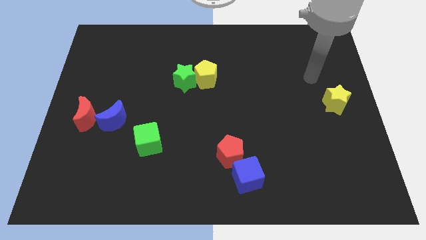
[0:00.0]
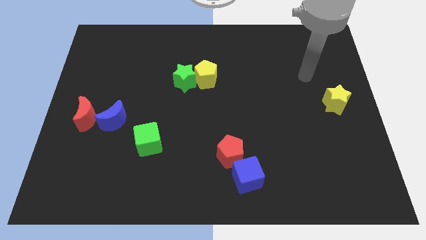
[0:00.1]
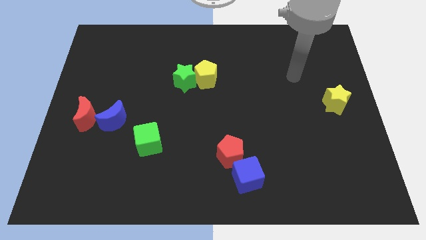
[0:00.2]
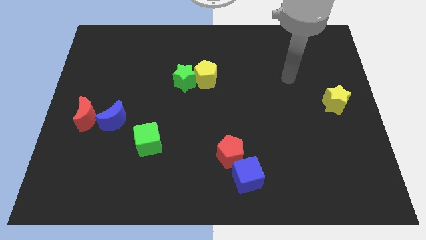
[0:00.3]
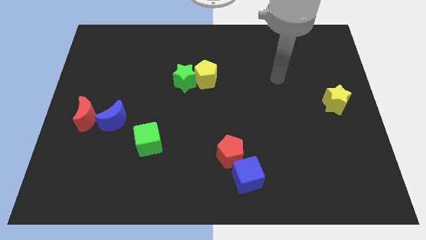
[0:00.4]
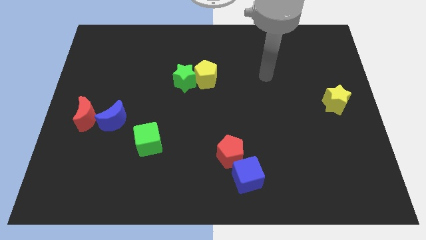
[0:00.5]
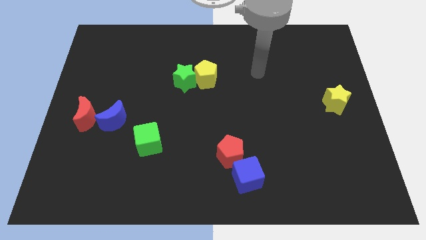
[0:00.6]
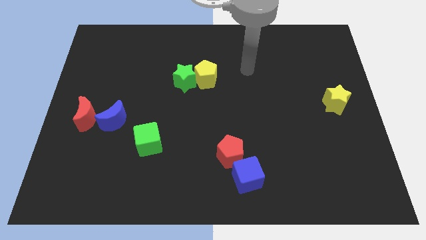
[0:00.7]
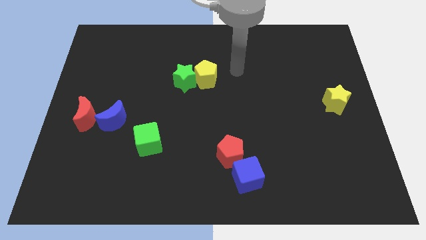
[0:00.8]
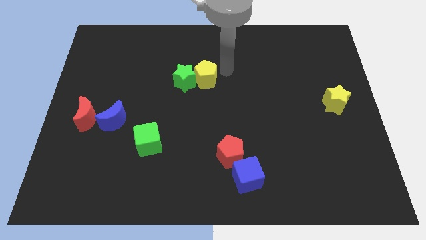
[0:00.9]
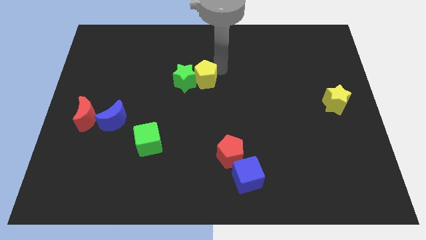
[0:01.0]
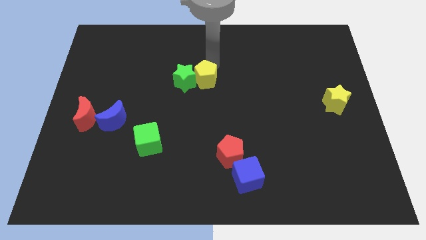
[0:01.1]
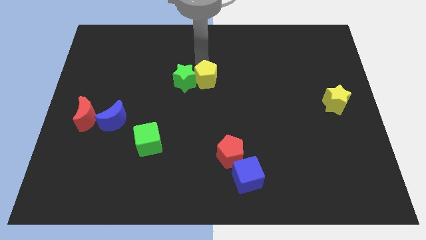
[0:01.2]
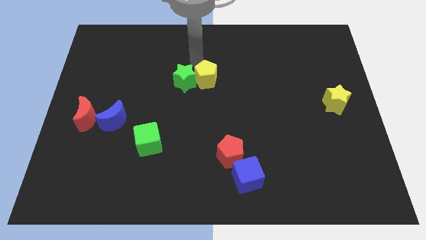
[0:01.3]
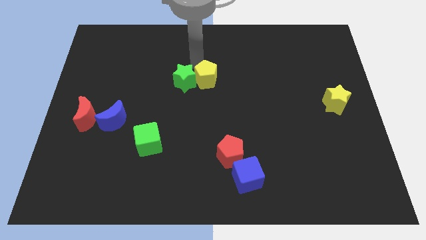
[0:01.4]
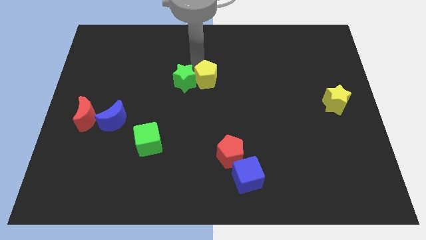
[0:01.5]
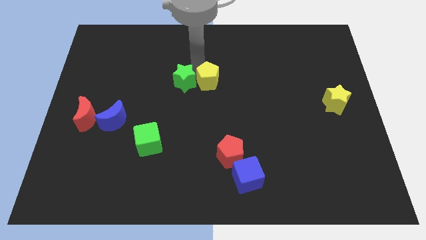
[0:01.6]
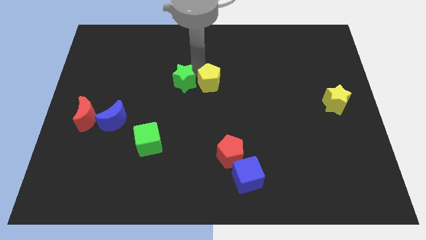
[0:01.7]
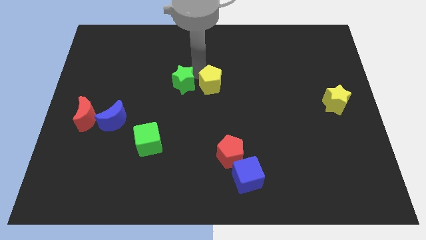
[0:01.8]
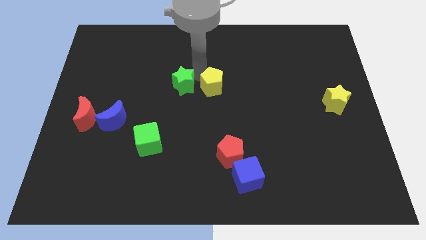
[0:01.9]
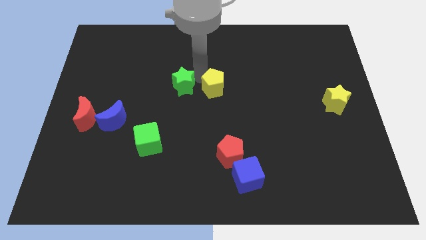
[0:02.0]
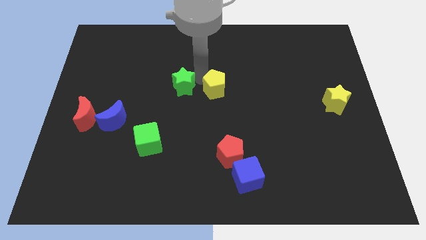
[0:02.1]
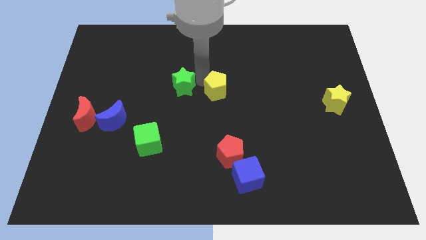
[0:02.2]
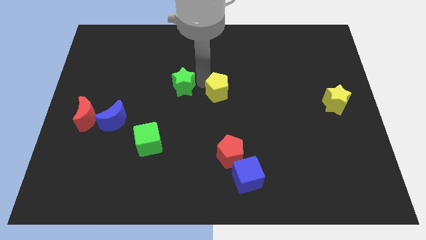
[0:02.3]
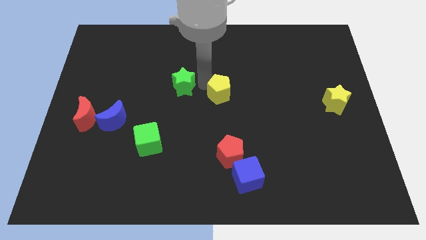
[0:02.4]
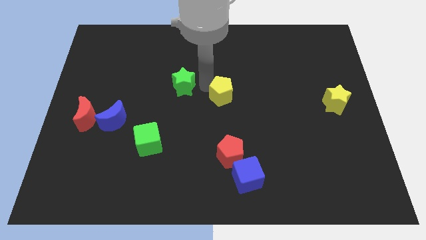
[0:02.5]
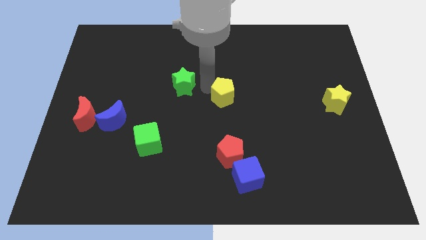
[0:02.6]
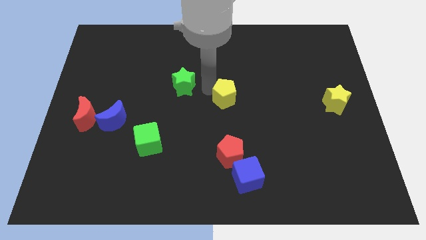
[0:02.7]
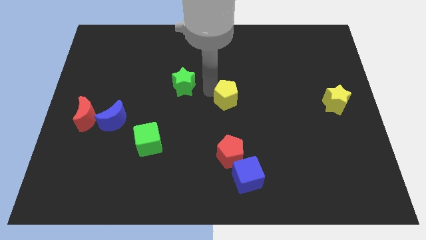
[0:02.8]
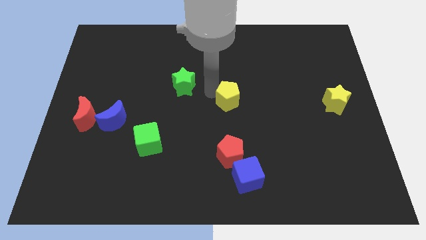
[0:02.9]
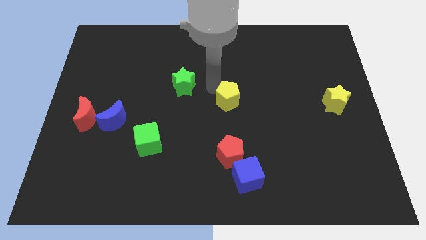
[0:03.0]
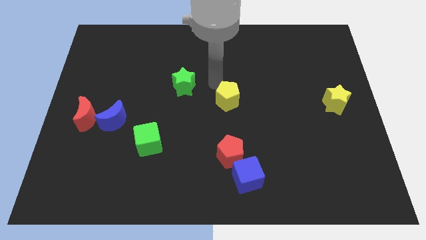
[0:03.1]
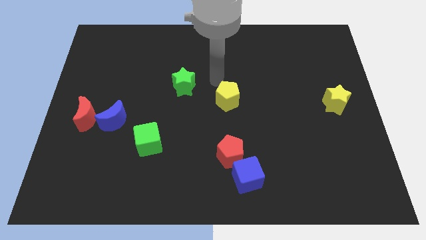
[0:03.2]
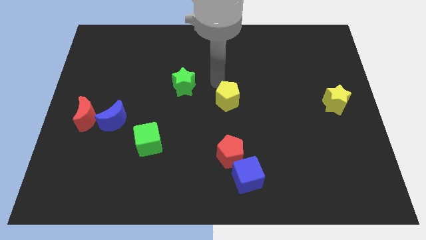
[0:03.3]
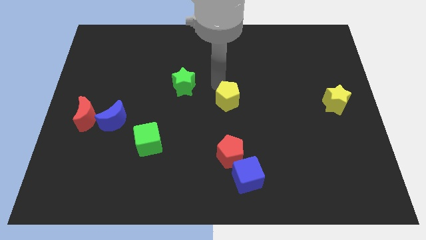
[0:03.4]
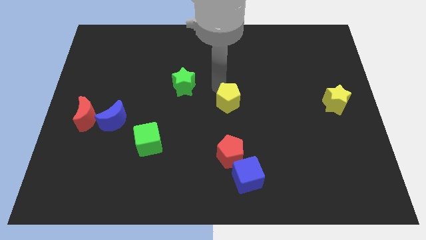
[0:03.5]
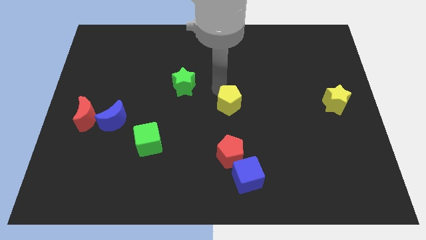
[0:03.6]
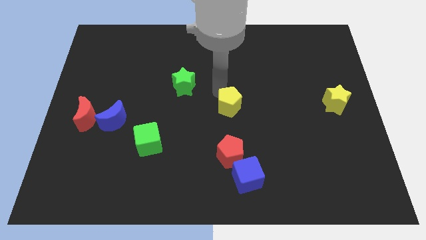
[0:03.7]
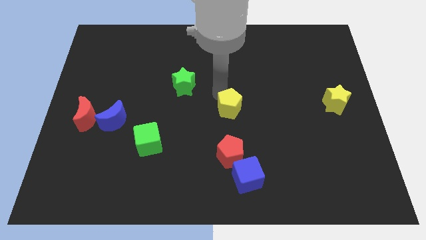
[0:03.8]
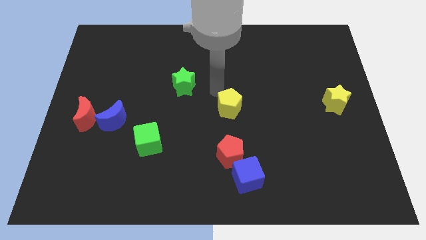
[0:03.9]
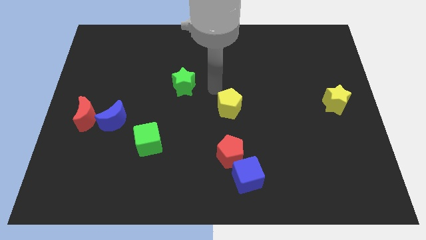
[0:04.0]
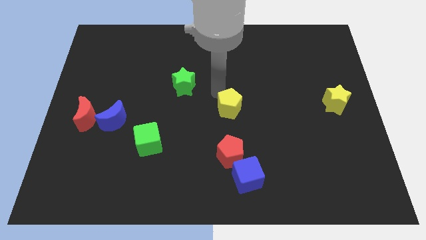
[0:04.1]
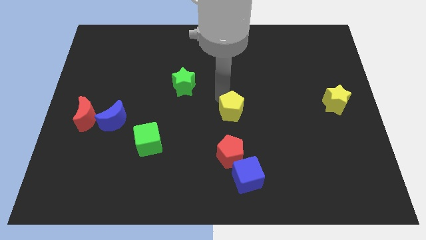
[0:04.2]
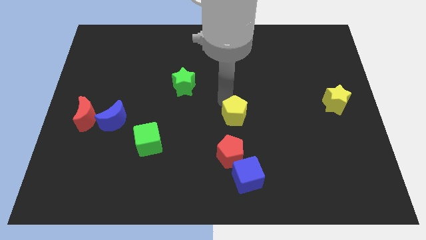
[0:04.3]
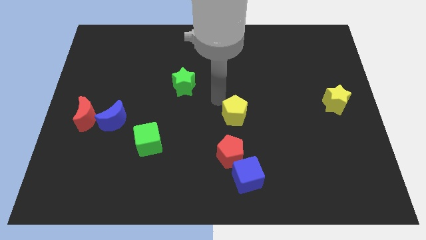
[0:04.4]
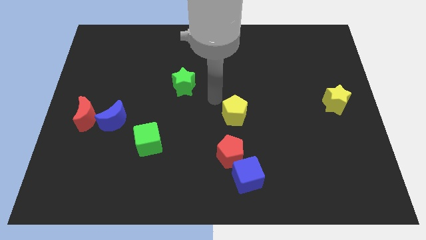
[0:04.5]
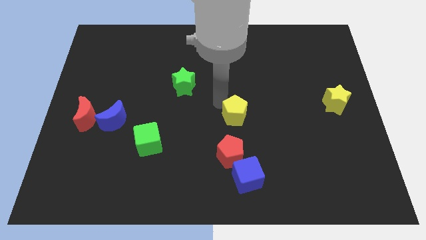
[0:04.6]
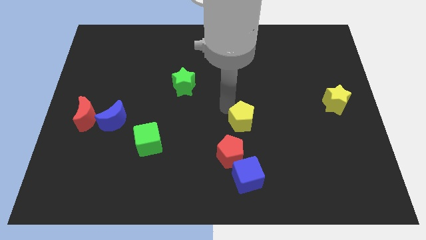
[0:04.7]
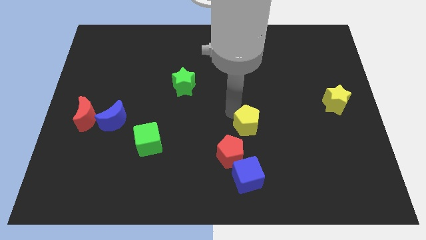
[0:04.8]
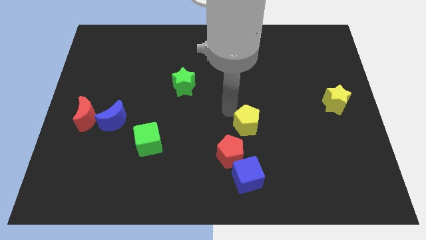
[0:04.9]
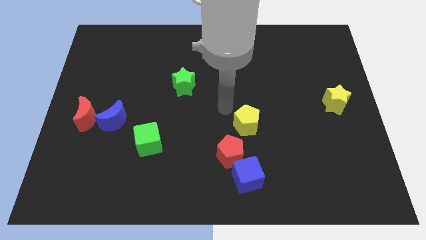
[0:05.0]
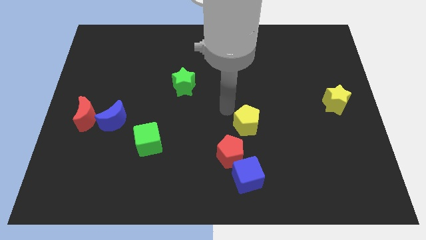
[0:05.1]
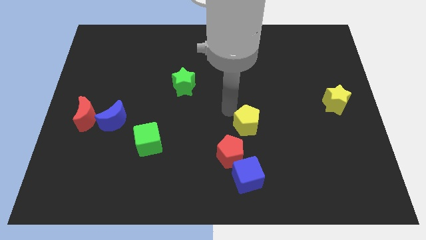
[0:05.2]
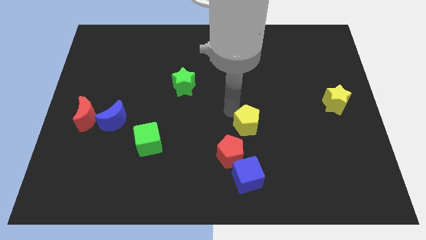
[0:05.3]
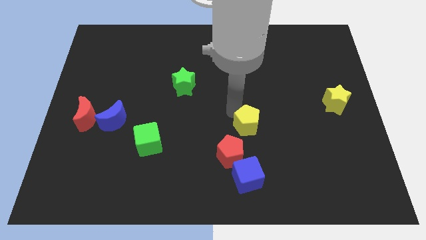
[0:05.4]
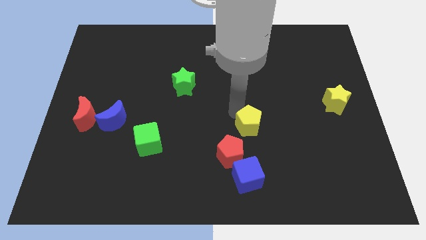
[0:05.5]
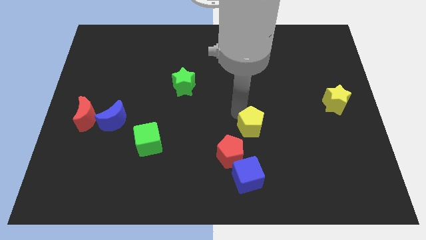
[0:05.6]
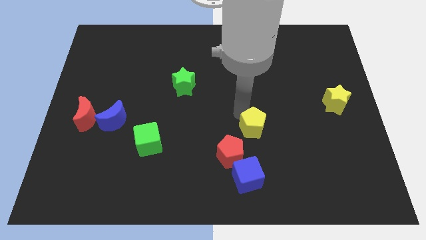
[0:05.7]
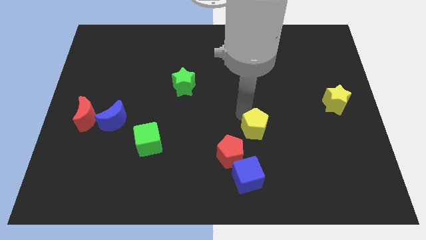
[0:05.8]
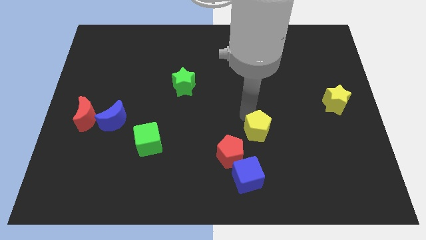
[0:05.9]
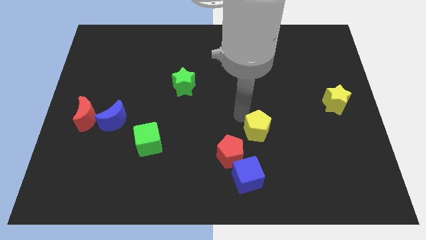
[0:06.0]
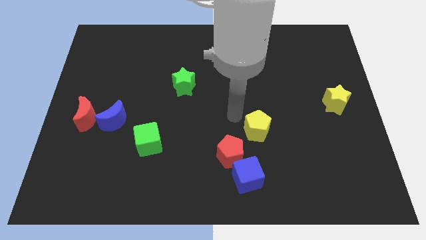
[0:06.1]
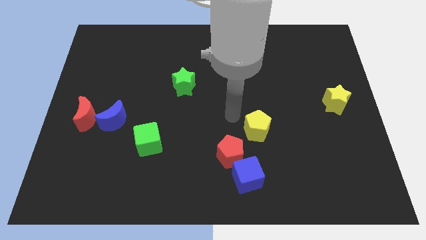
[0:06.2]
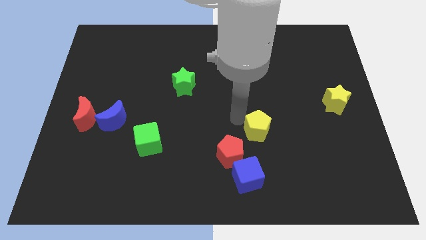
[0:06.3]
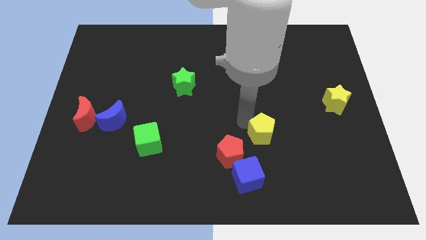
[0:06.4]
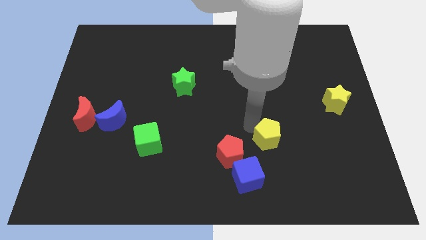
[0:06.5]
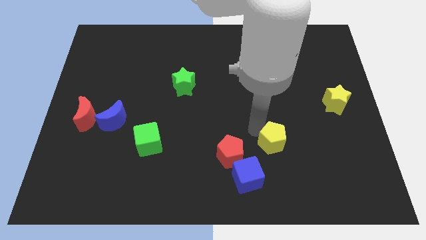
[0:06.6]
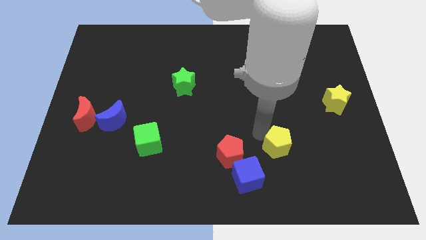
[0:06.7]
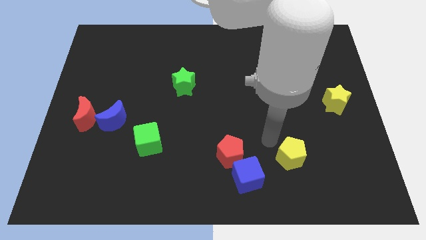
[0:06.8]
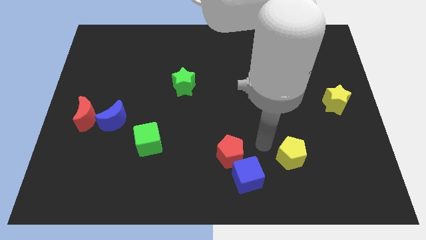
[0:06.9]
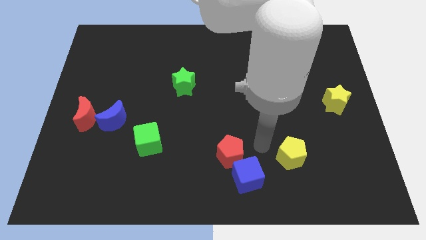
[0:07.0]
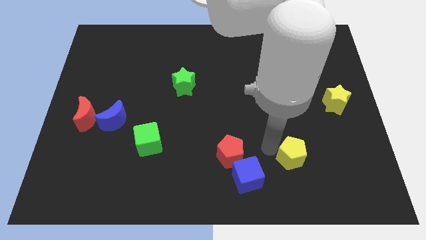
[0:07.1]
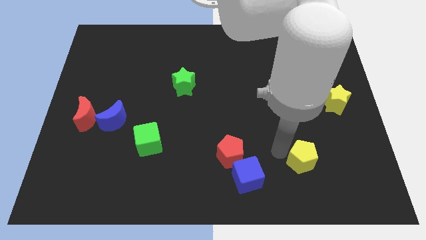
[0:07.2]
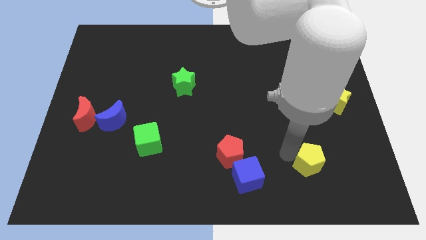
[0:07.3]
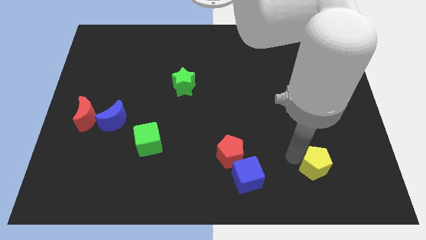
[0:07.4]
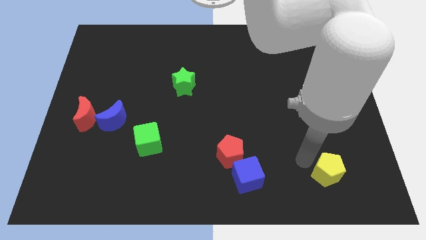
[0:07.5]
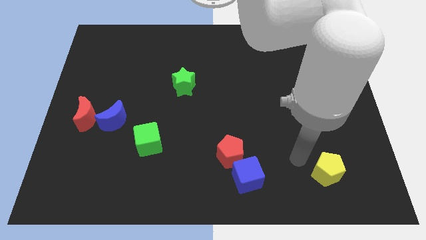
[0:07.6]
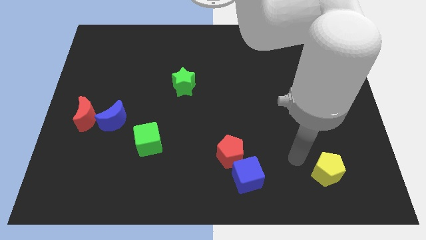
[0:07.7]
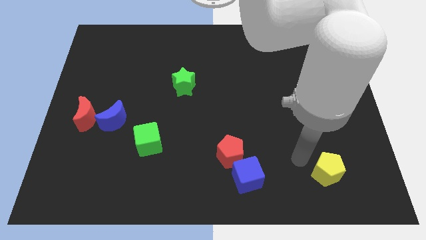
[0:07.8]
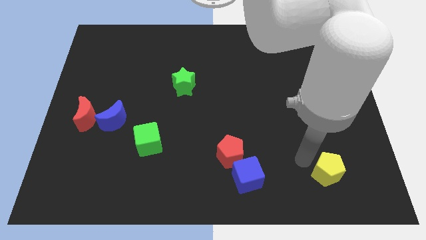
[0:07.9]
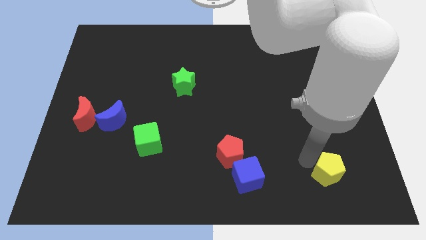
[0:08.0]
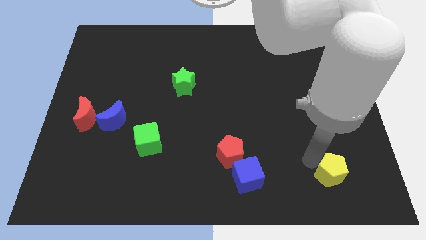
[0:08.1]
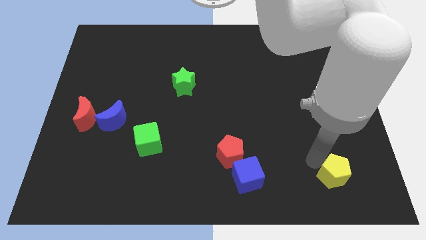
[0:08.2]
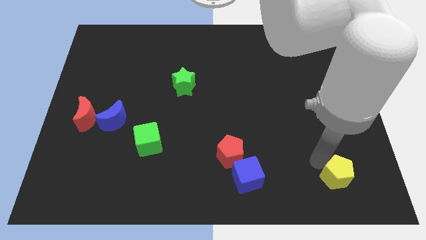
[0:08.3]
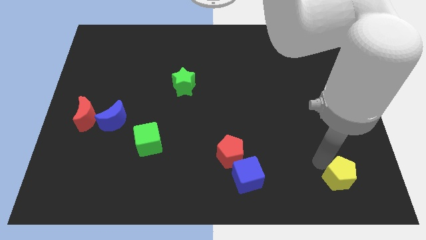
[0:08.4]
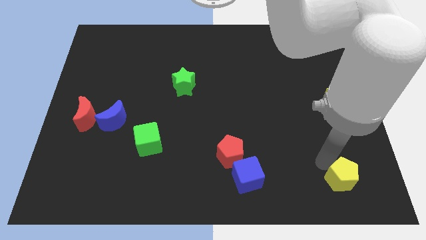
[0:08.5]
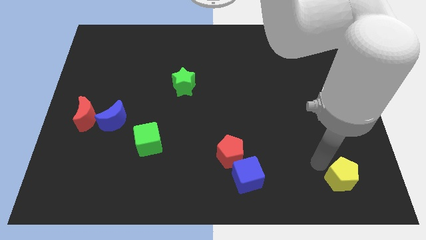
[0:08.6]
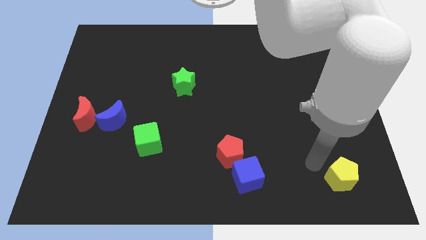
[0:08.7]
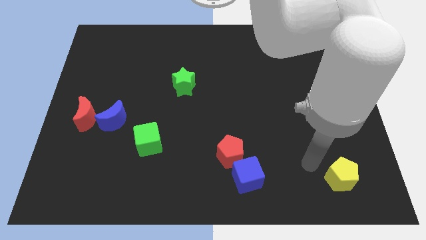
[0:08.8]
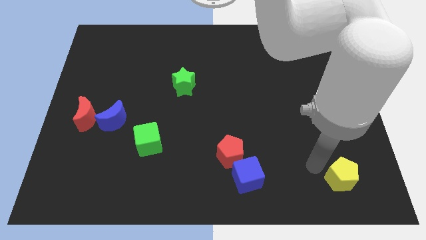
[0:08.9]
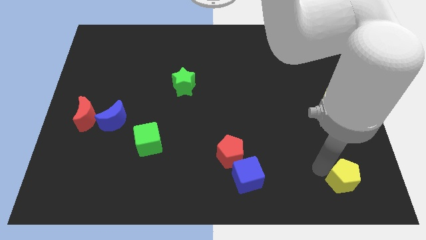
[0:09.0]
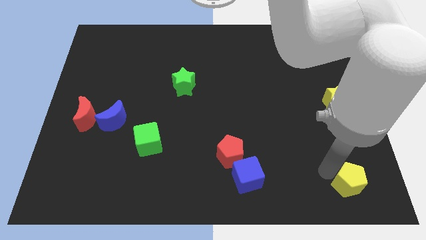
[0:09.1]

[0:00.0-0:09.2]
slide the yellow pentagon to the lower right corner
